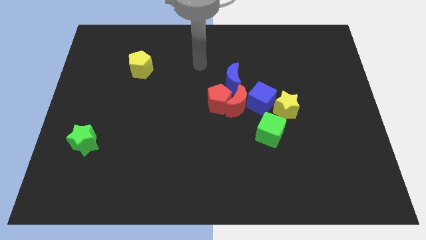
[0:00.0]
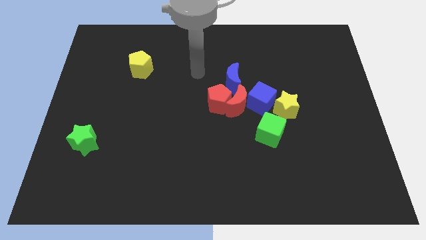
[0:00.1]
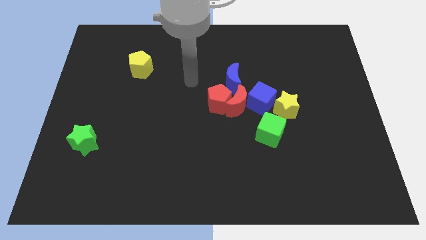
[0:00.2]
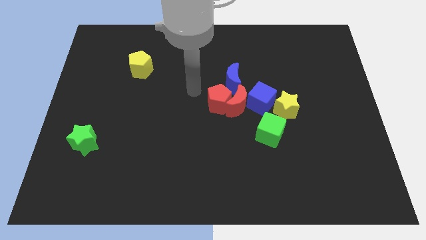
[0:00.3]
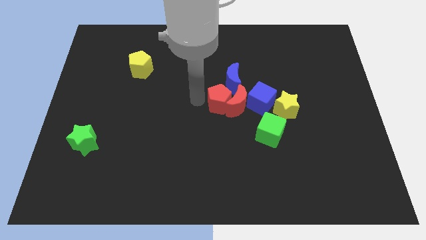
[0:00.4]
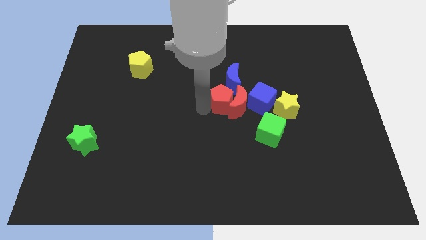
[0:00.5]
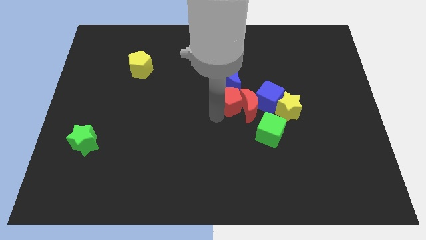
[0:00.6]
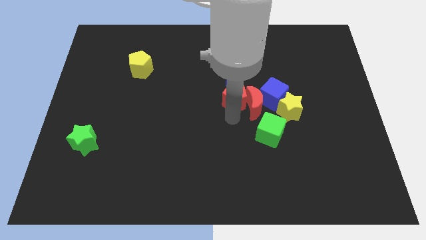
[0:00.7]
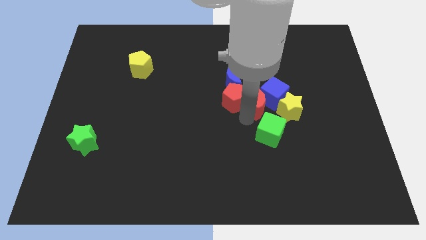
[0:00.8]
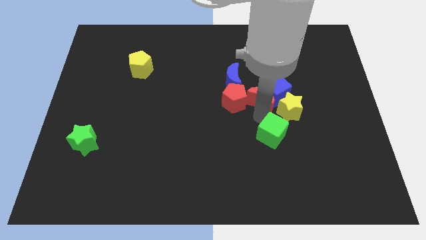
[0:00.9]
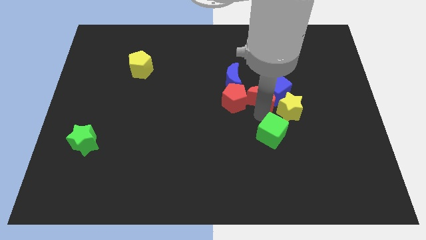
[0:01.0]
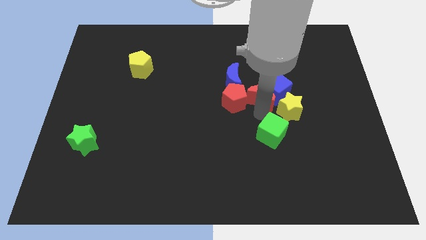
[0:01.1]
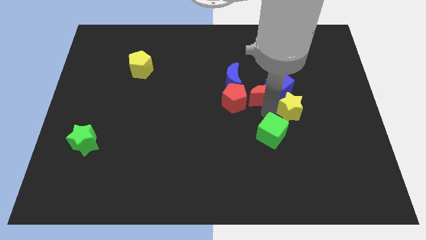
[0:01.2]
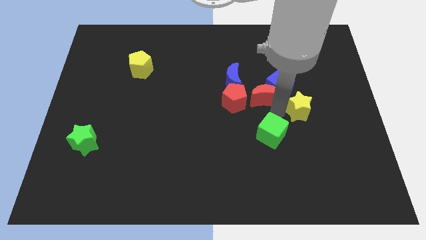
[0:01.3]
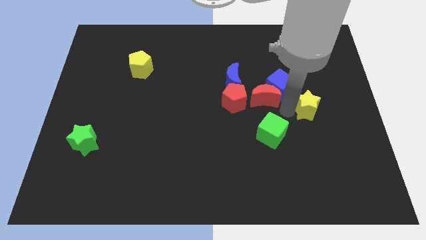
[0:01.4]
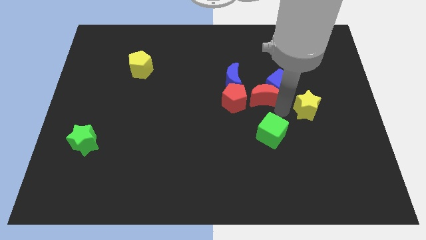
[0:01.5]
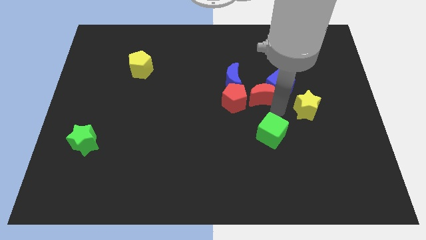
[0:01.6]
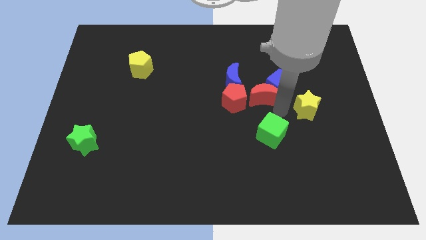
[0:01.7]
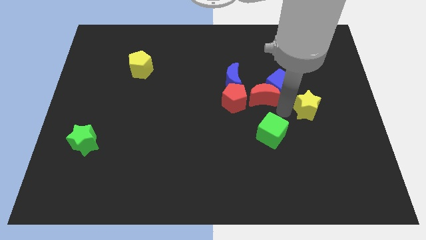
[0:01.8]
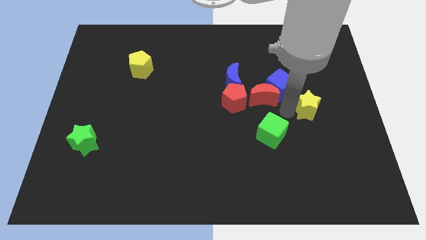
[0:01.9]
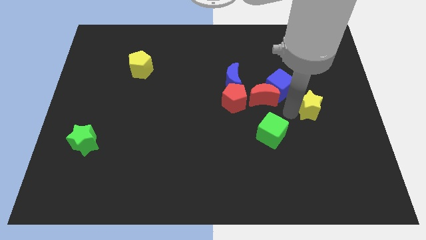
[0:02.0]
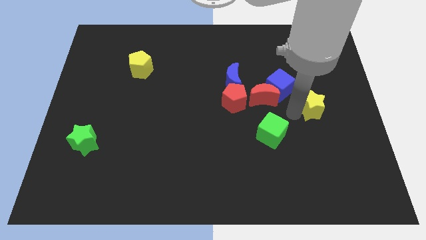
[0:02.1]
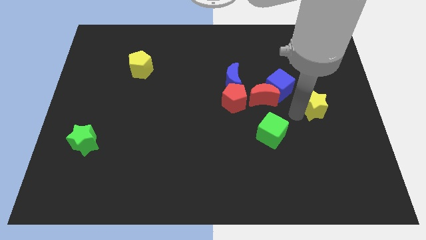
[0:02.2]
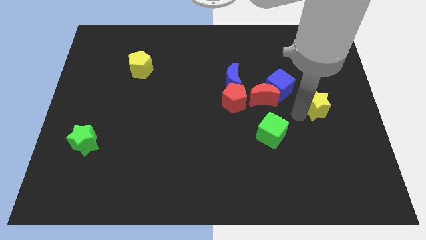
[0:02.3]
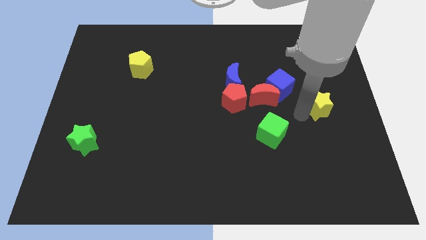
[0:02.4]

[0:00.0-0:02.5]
separate the yellow star from the blue cube and green cube

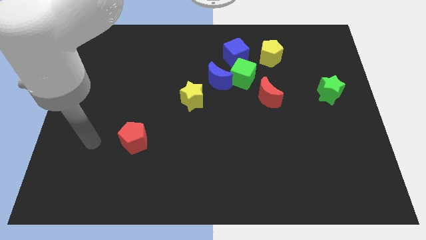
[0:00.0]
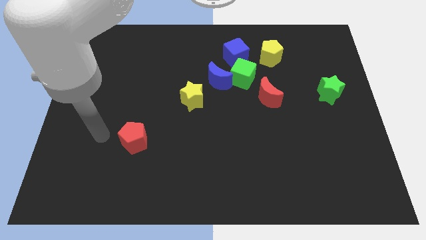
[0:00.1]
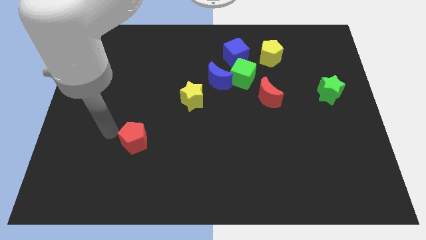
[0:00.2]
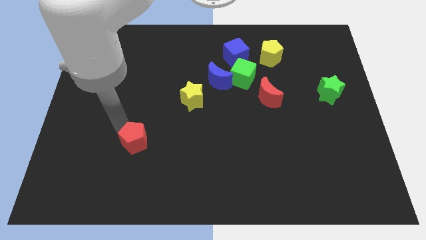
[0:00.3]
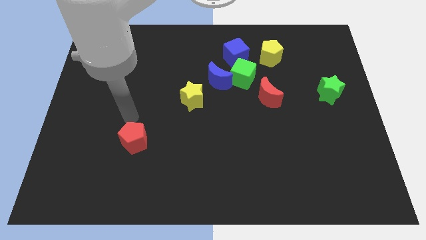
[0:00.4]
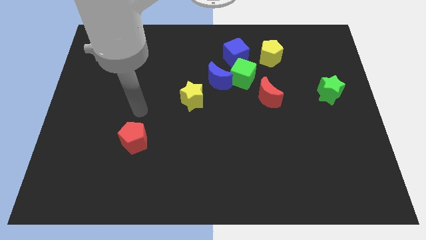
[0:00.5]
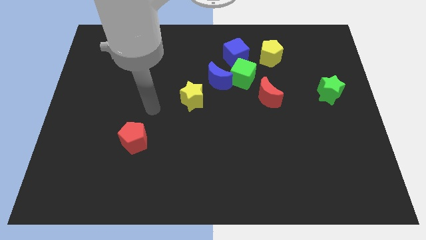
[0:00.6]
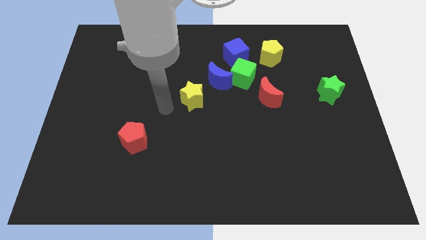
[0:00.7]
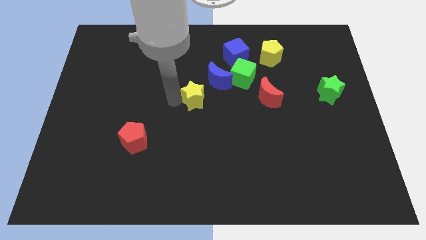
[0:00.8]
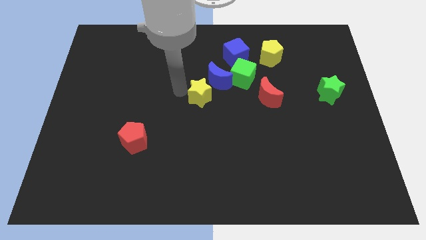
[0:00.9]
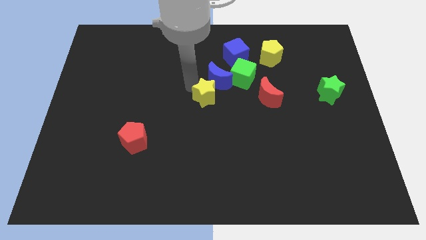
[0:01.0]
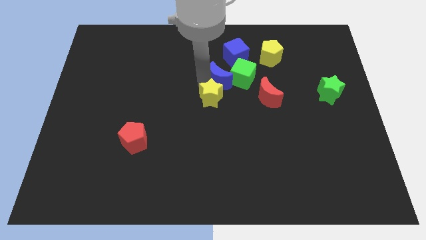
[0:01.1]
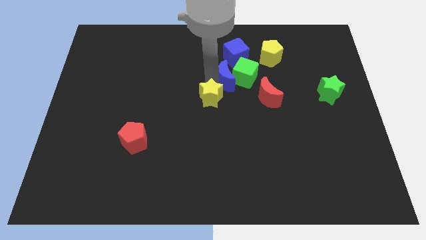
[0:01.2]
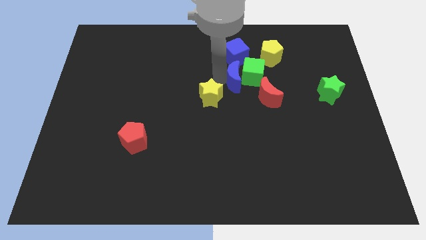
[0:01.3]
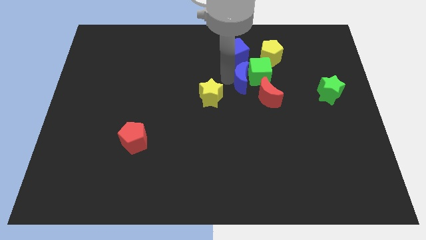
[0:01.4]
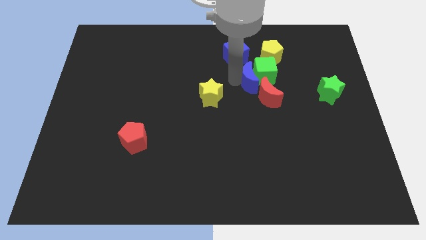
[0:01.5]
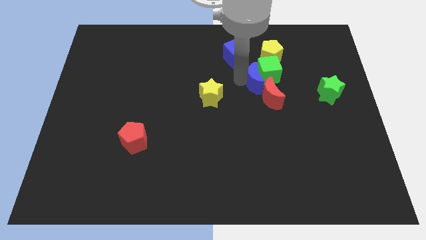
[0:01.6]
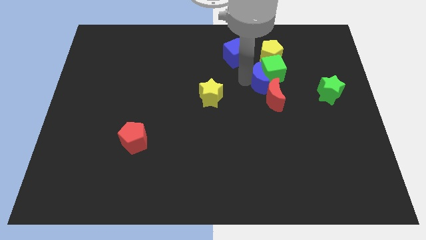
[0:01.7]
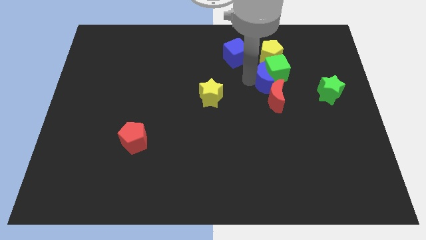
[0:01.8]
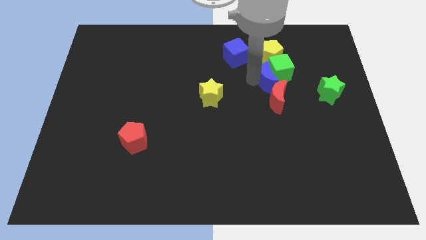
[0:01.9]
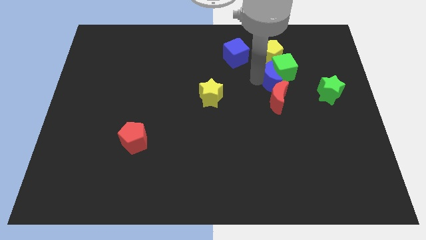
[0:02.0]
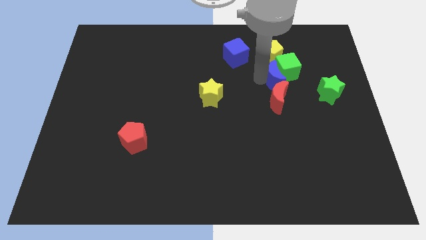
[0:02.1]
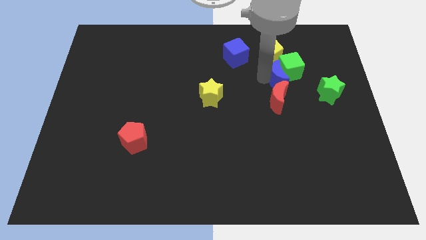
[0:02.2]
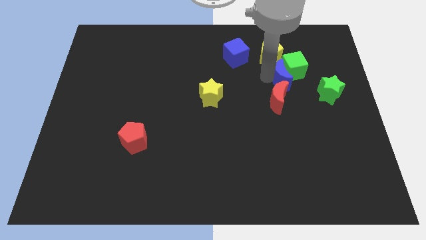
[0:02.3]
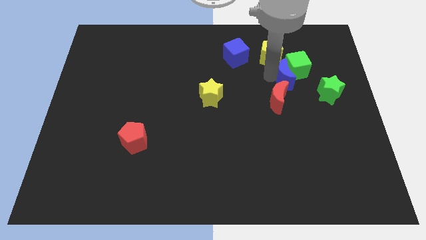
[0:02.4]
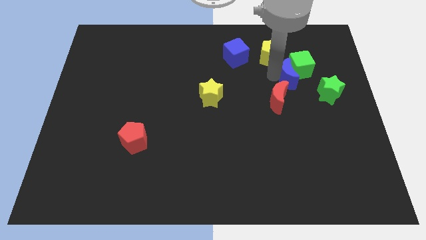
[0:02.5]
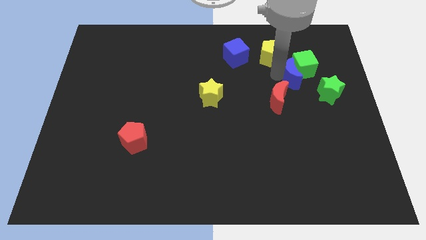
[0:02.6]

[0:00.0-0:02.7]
move the green cube away from the group of blocks

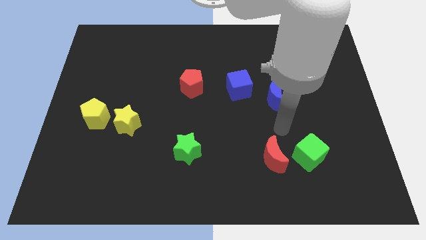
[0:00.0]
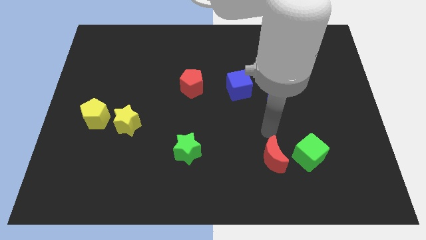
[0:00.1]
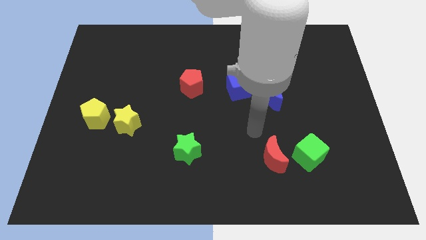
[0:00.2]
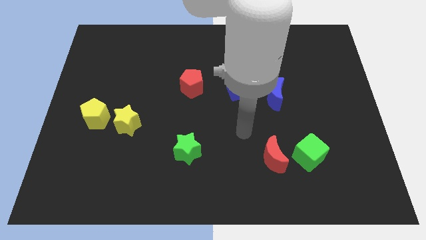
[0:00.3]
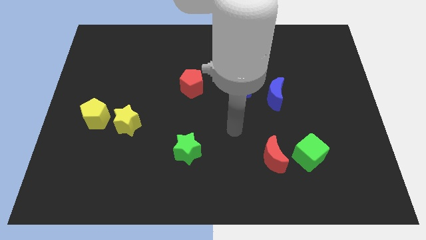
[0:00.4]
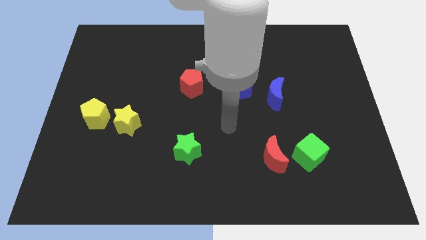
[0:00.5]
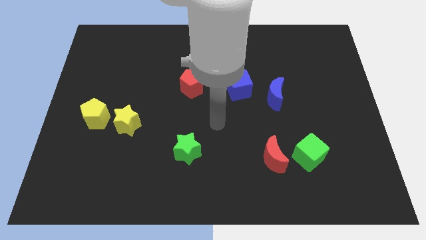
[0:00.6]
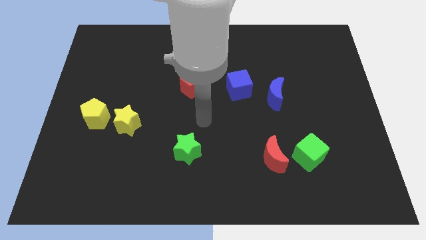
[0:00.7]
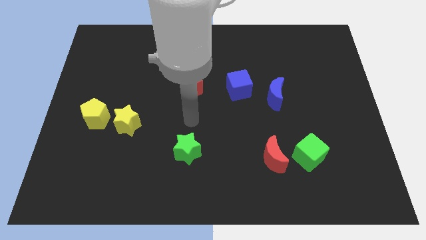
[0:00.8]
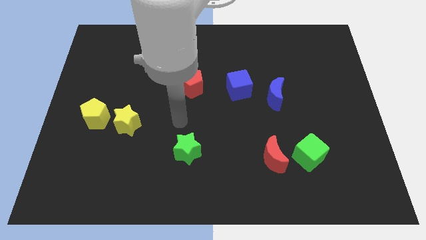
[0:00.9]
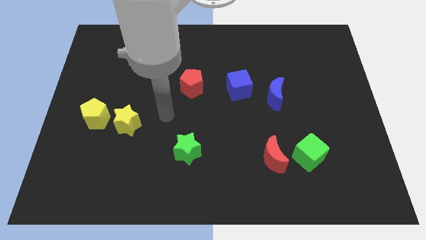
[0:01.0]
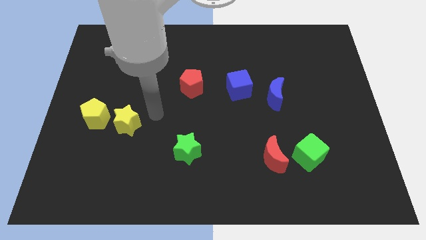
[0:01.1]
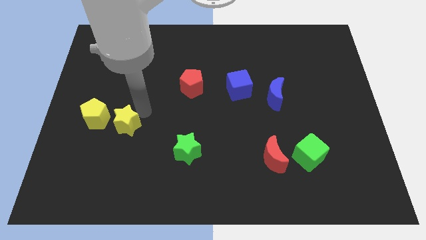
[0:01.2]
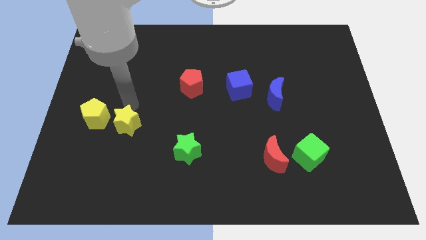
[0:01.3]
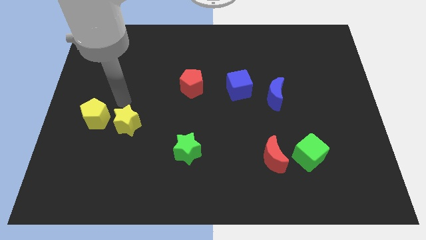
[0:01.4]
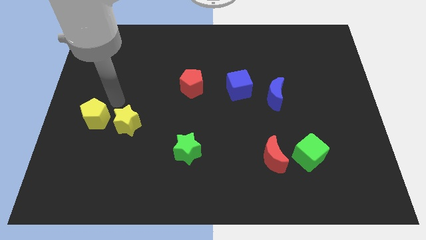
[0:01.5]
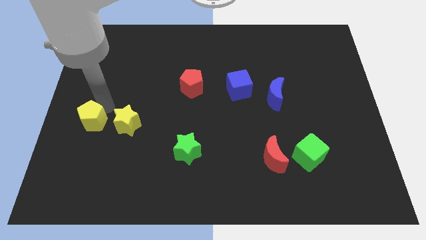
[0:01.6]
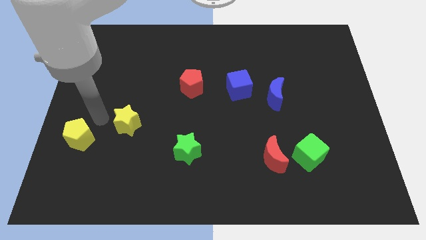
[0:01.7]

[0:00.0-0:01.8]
move the yellow star away from the yellow pentagon

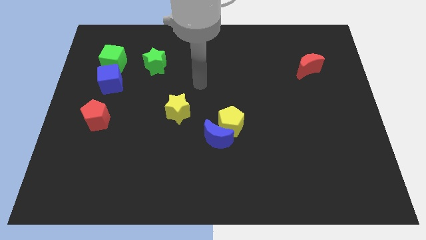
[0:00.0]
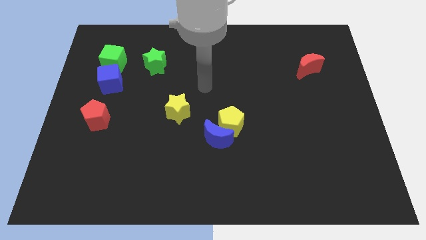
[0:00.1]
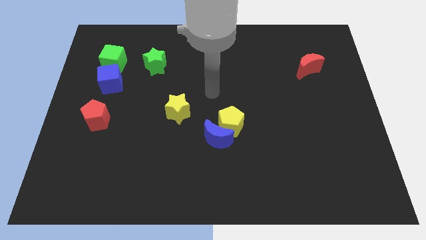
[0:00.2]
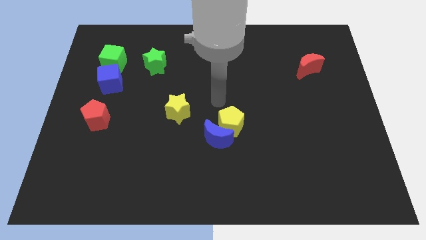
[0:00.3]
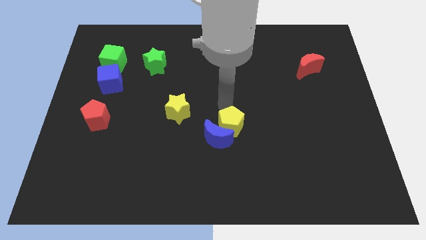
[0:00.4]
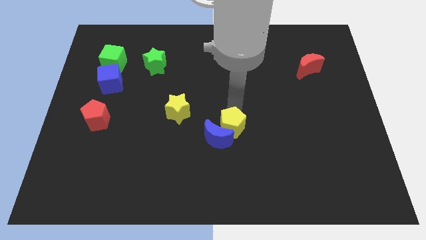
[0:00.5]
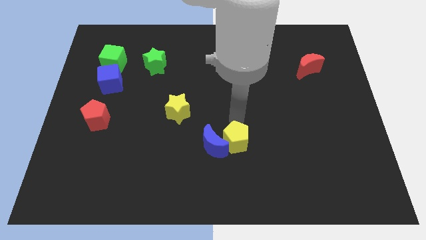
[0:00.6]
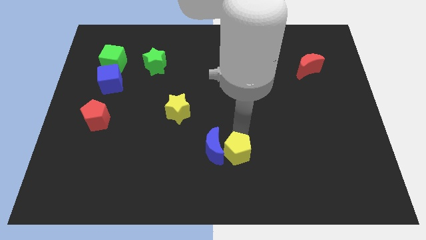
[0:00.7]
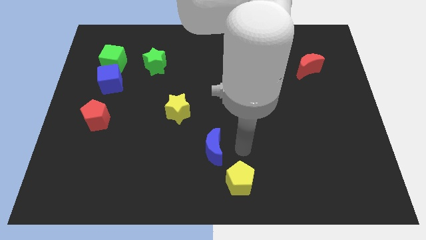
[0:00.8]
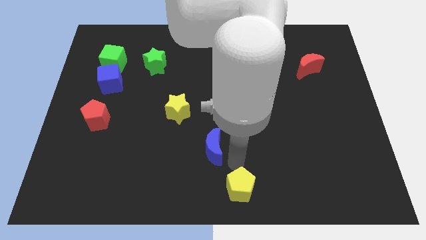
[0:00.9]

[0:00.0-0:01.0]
pull the blue moon apart from the yellow pentagon

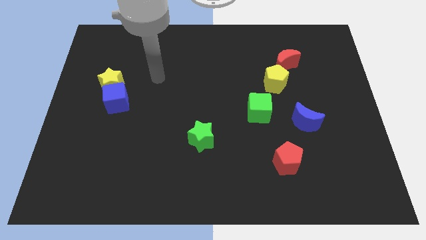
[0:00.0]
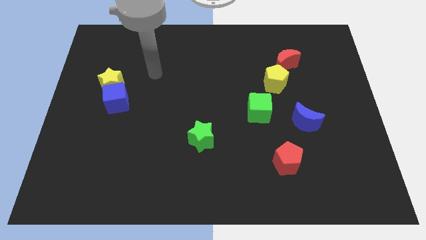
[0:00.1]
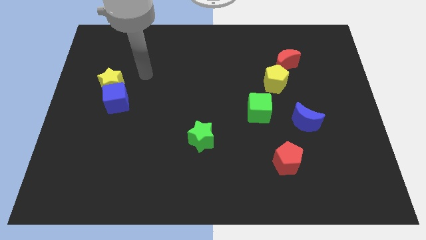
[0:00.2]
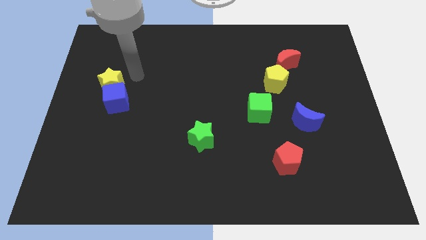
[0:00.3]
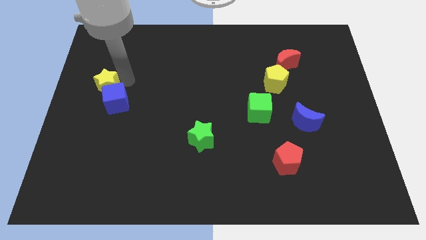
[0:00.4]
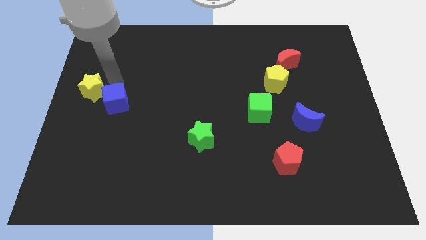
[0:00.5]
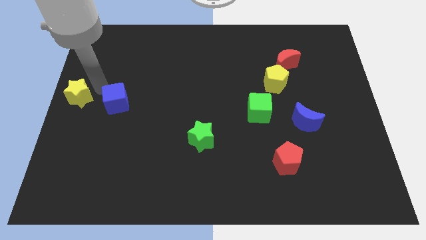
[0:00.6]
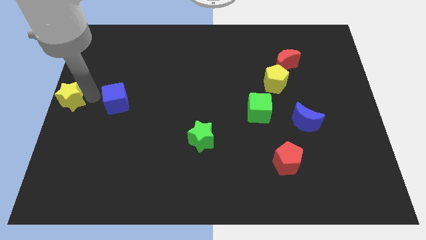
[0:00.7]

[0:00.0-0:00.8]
pull the blue cube apart from the yellow star

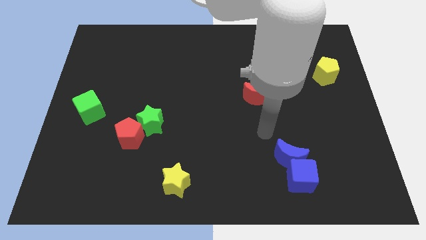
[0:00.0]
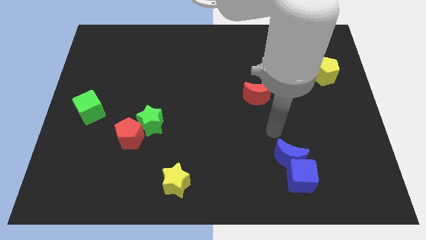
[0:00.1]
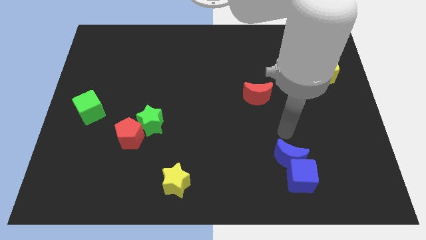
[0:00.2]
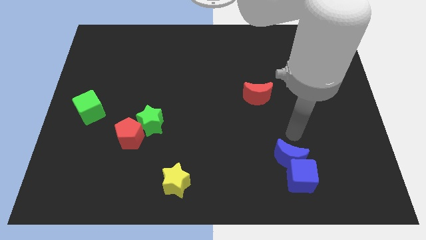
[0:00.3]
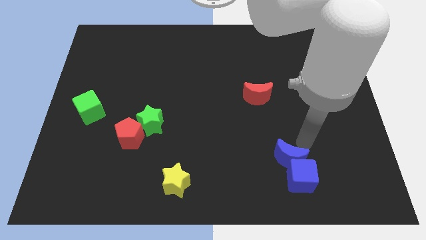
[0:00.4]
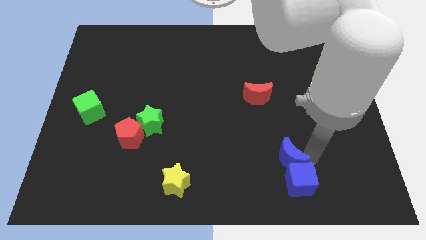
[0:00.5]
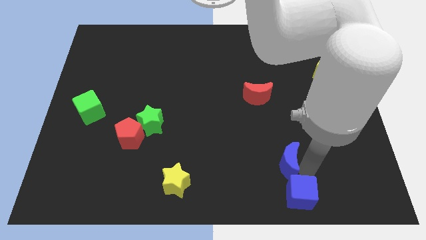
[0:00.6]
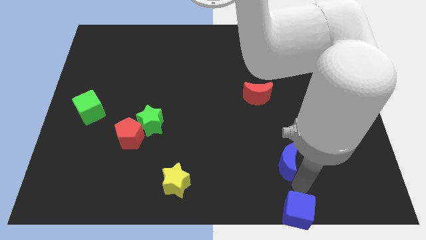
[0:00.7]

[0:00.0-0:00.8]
move the blue moon away from the blue cube
